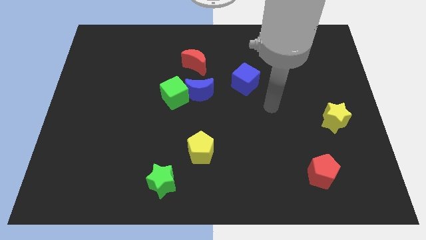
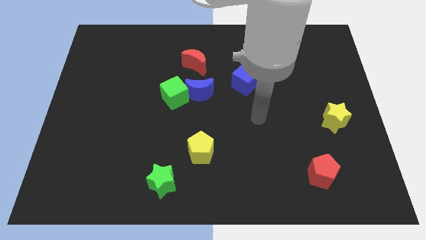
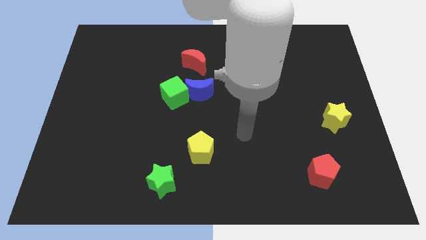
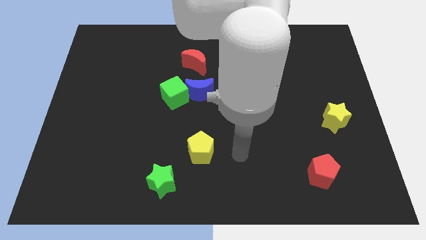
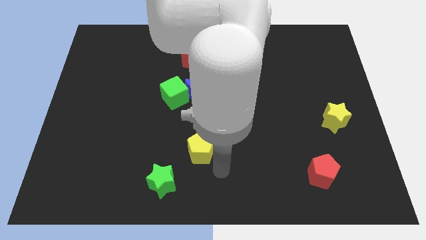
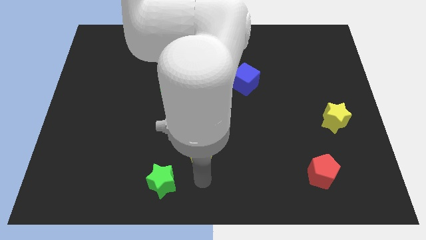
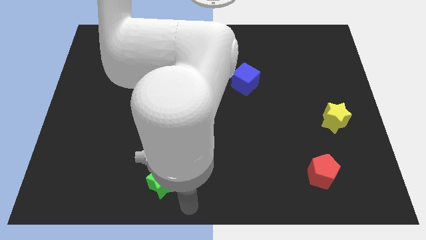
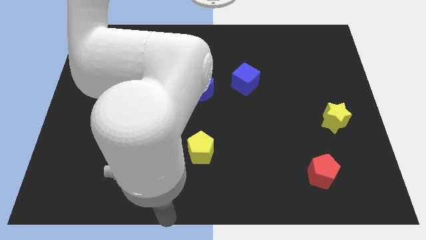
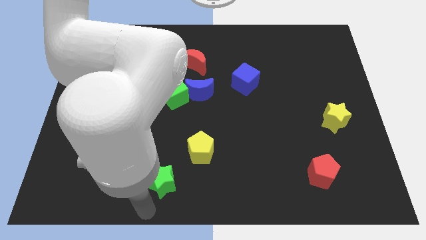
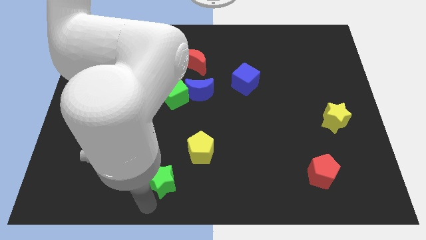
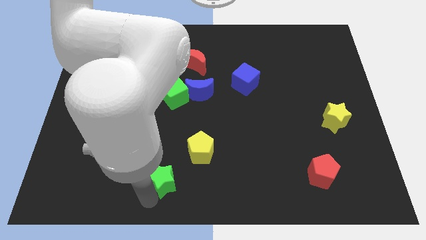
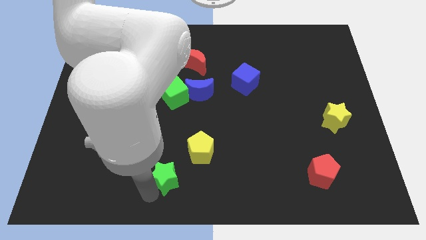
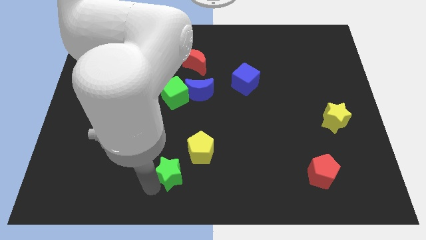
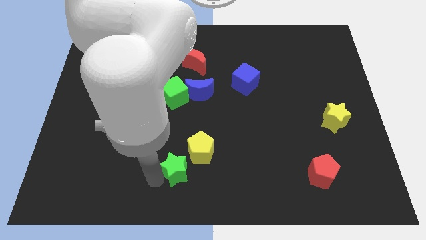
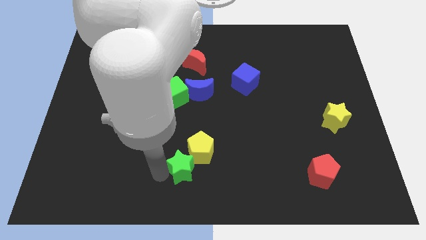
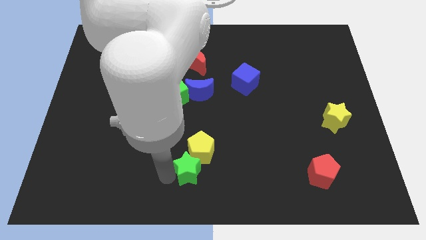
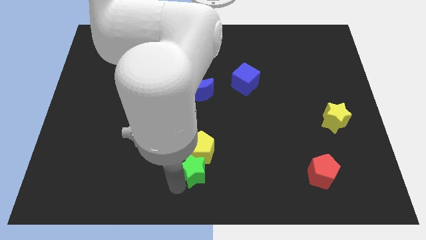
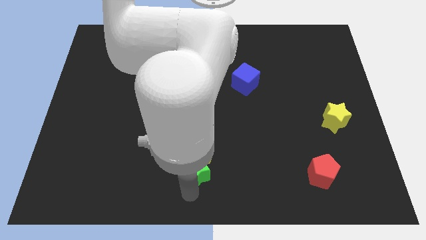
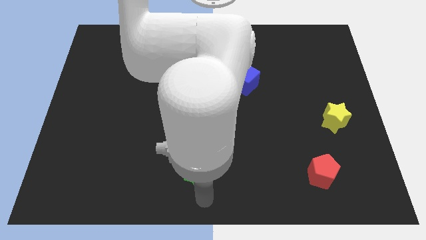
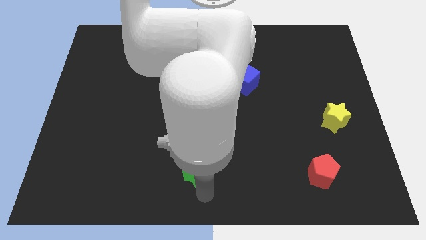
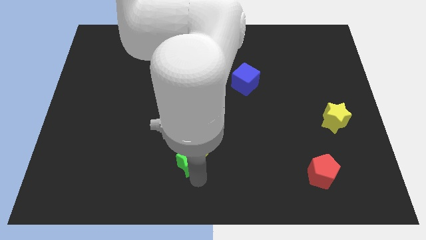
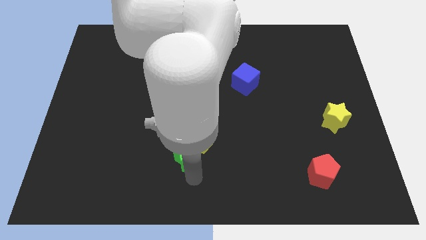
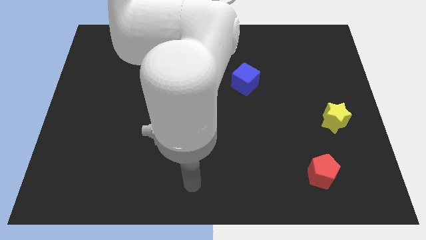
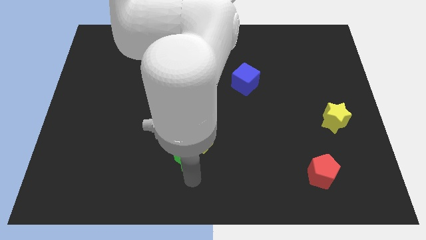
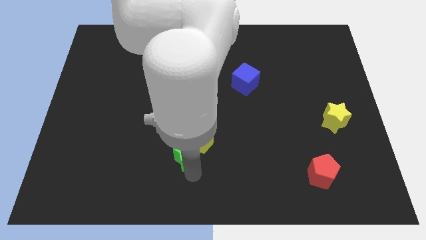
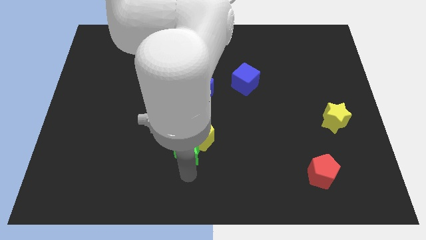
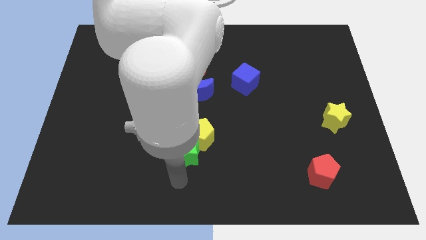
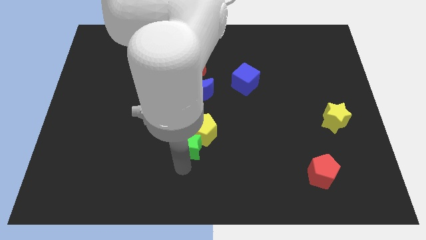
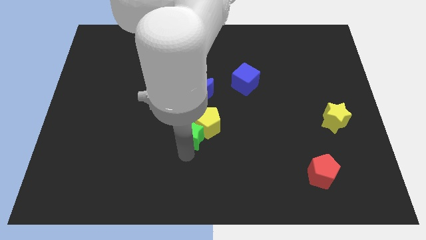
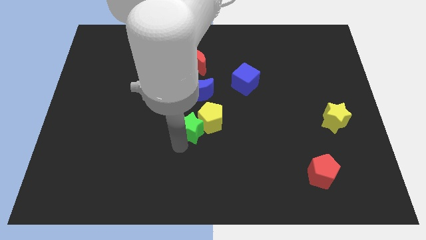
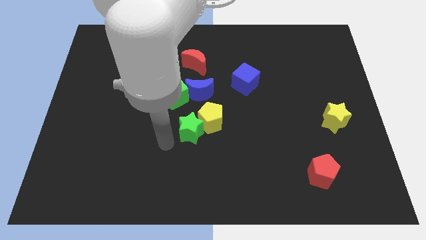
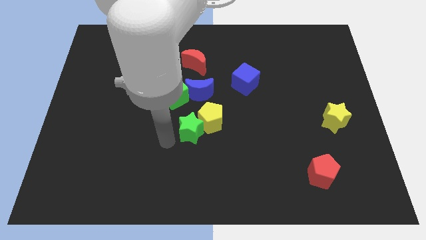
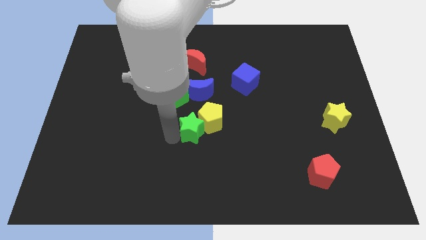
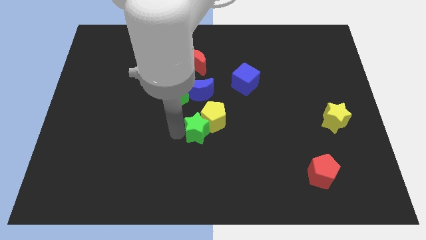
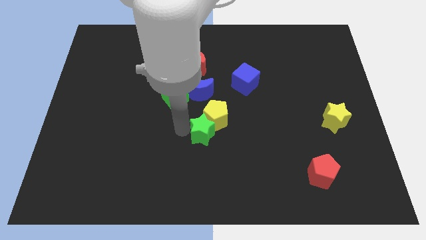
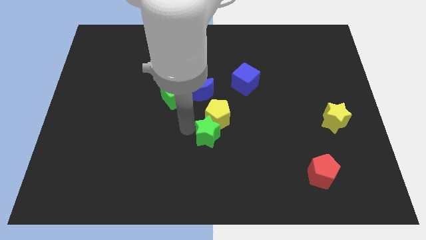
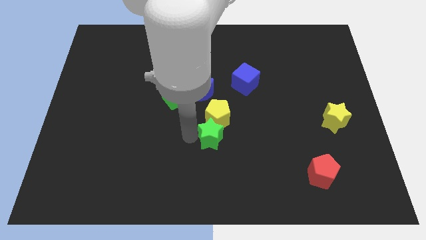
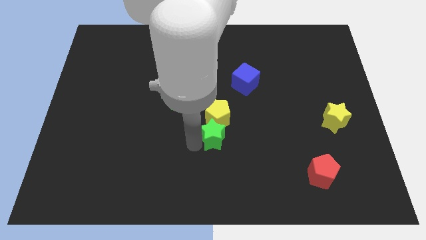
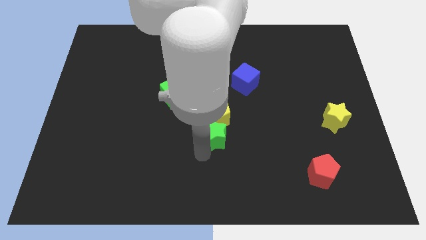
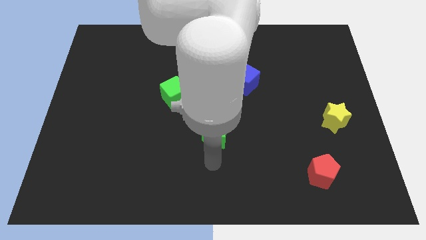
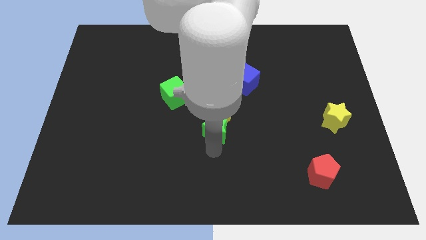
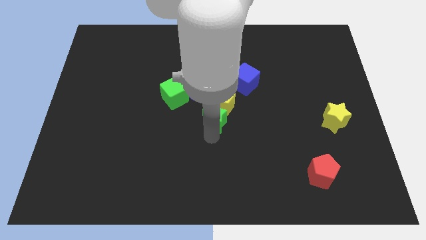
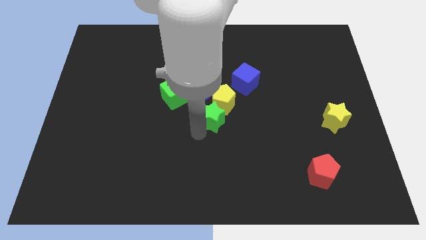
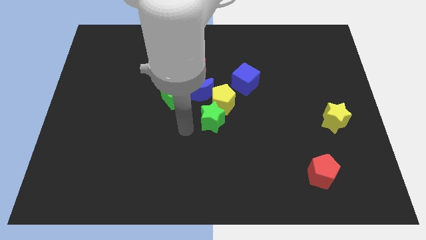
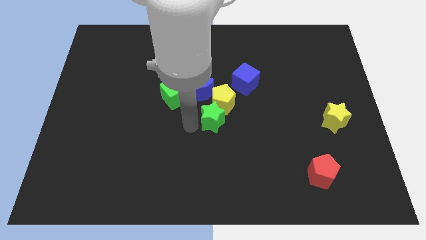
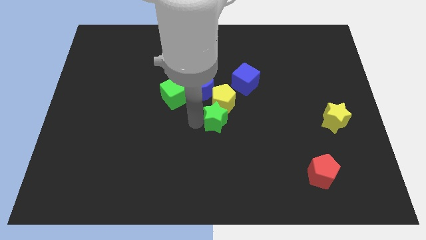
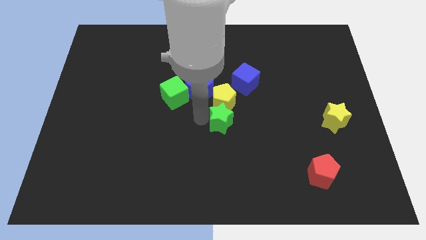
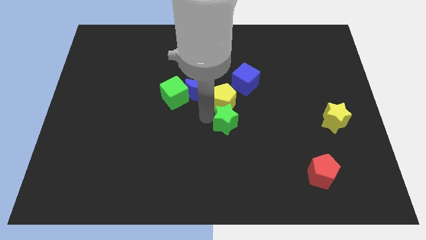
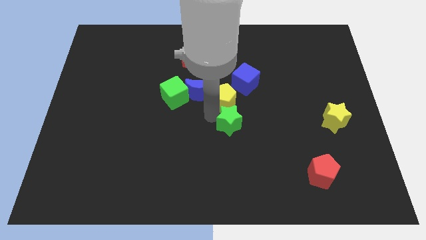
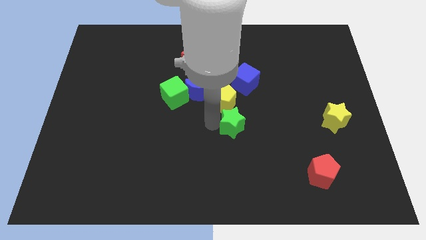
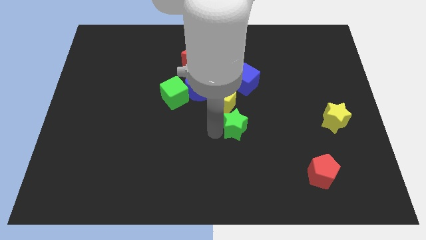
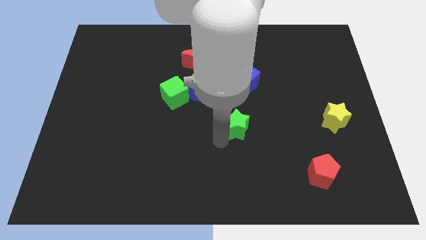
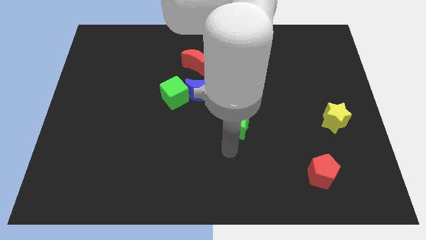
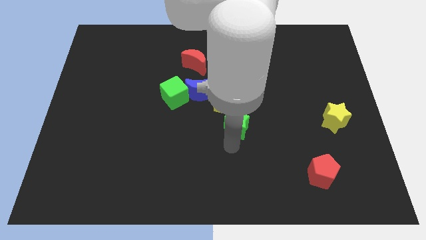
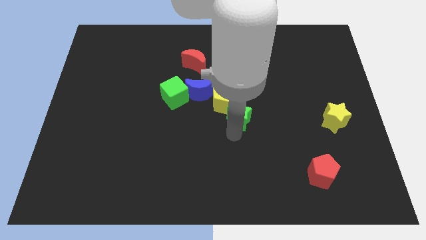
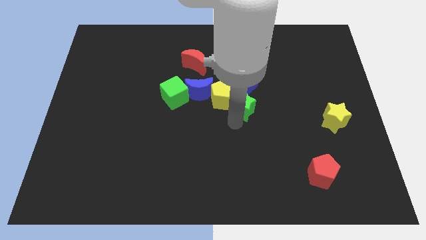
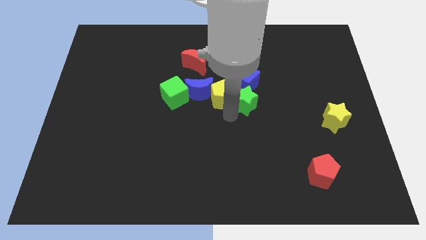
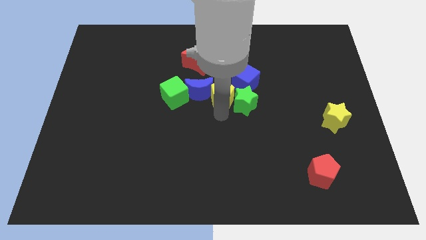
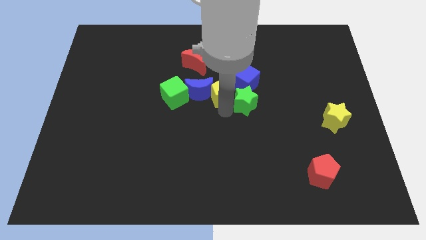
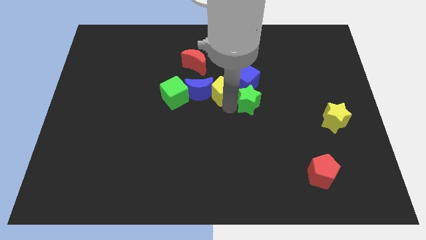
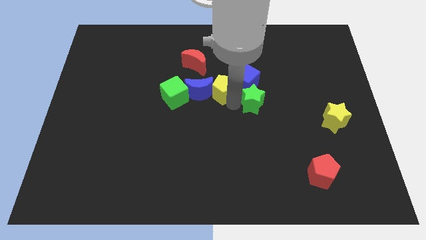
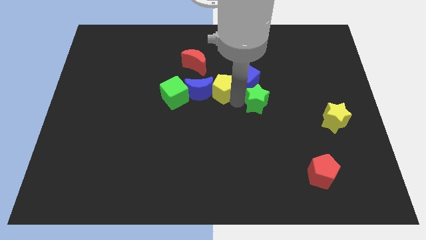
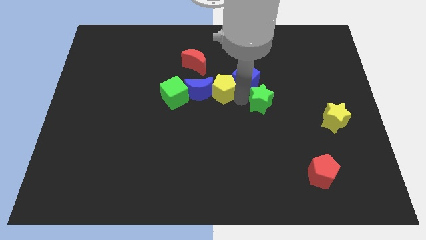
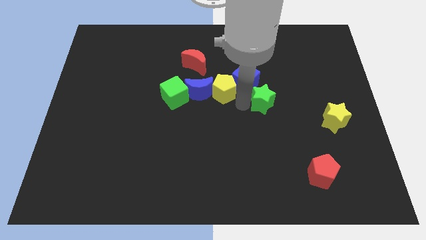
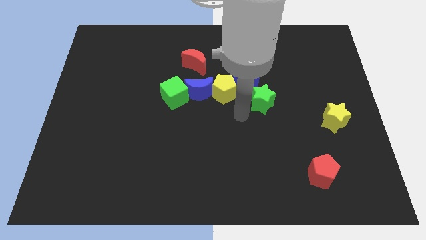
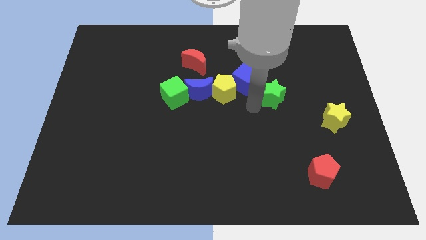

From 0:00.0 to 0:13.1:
put the green star to the right side of the blue cube

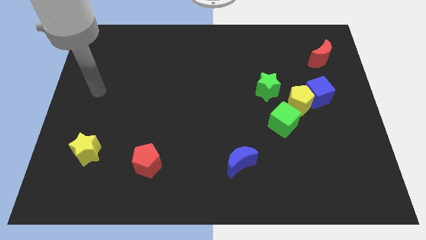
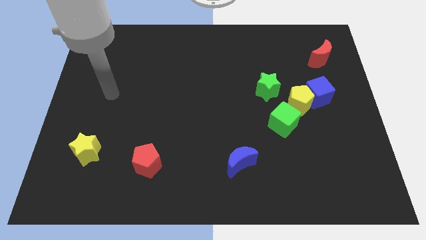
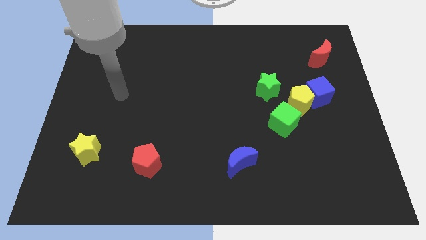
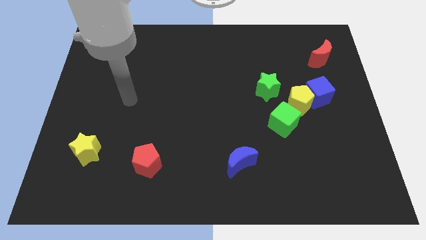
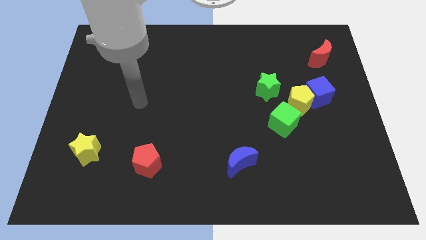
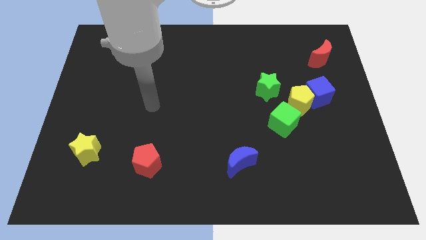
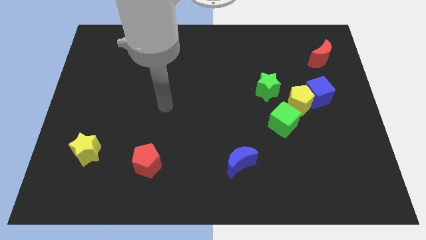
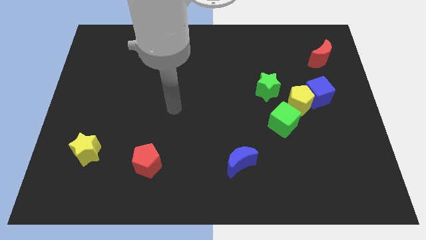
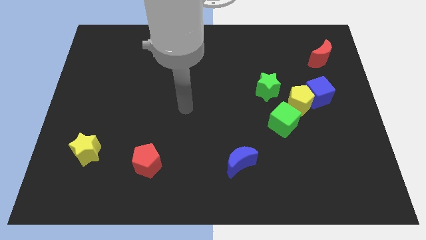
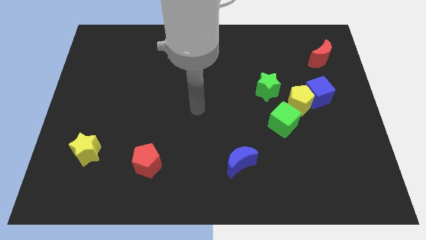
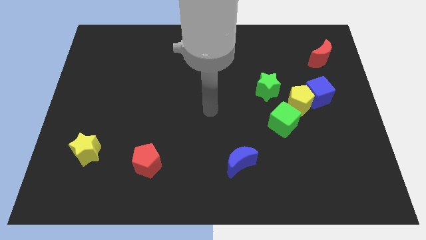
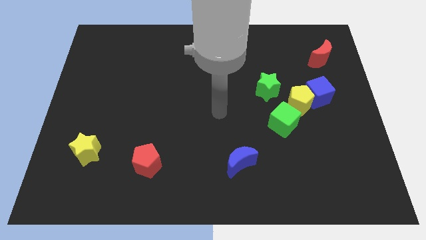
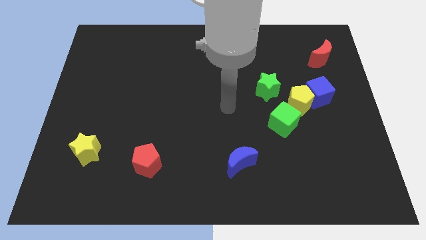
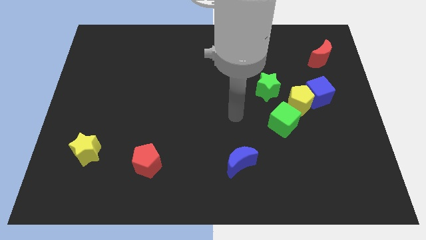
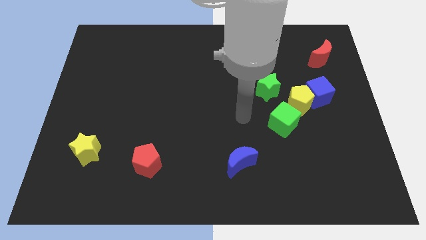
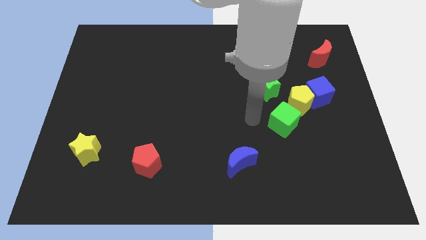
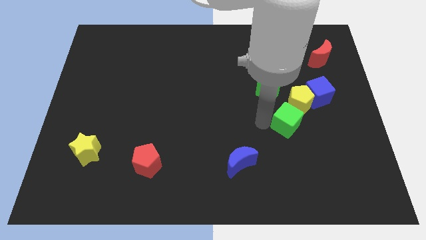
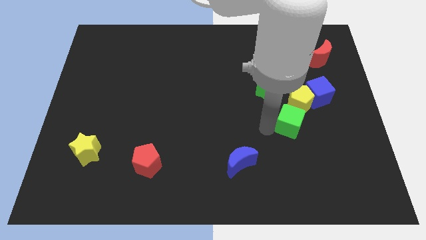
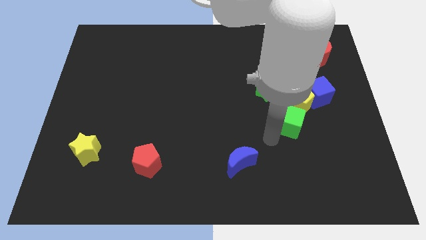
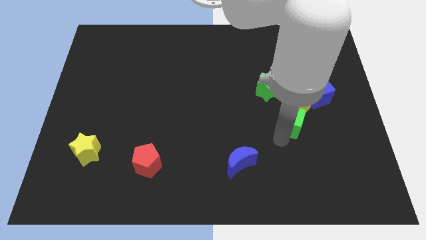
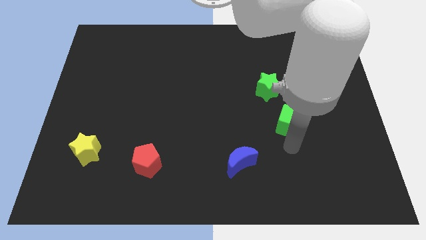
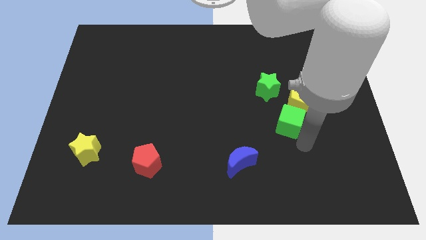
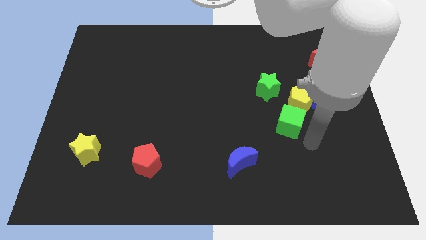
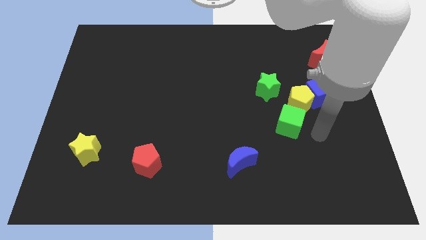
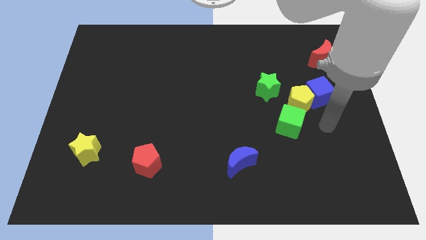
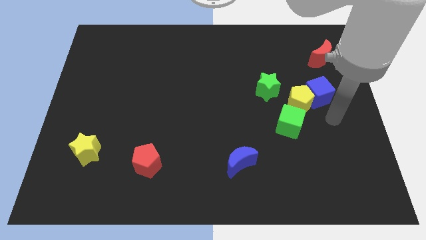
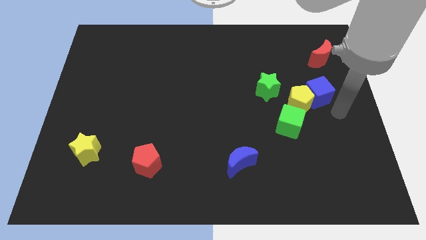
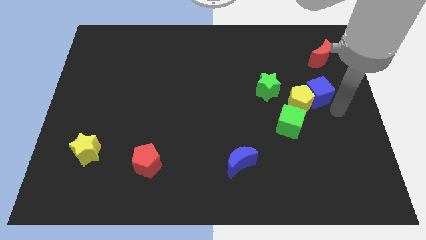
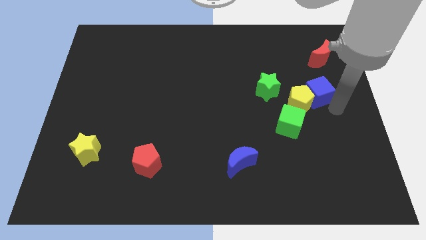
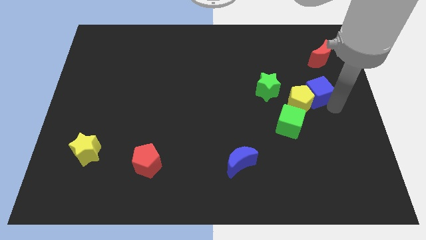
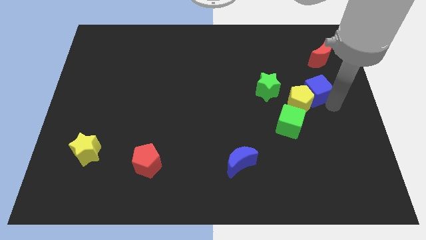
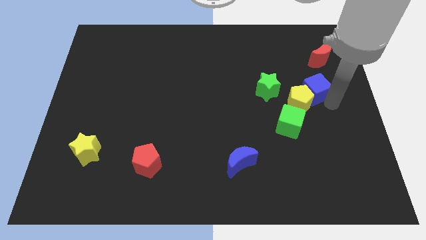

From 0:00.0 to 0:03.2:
push the blue cube above the yellow pentagon
